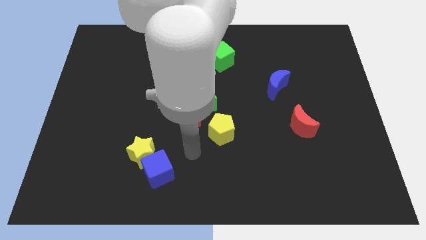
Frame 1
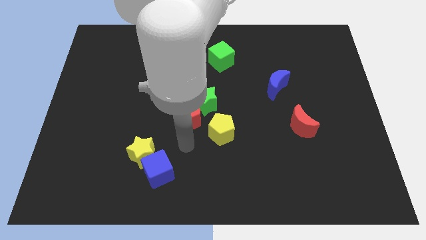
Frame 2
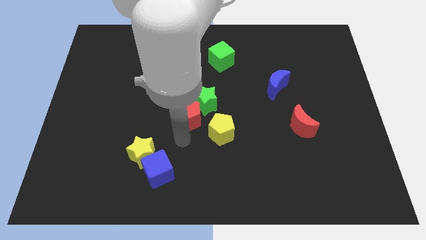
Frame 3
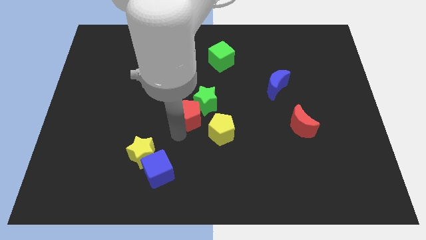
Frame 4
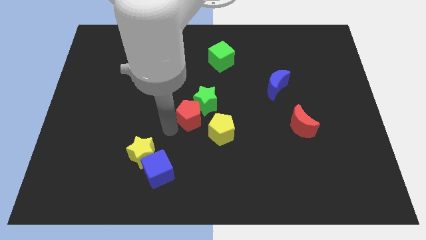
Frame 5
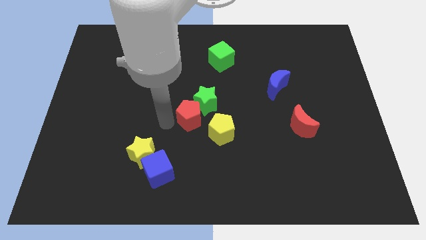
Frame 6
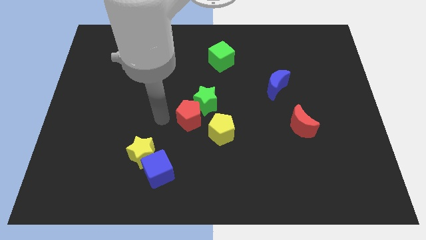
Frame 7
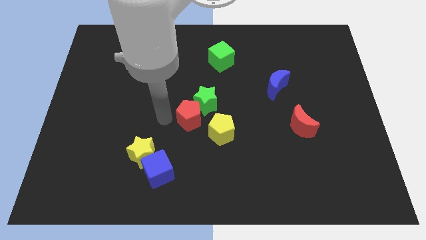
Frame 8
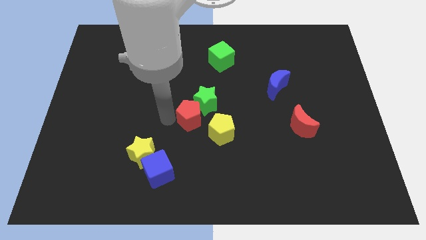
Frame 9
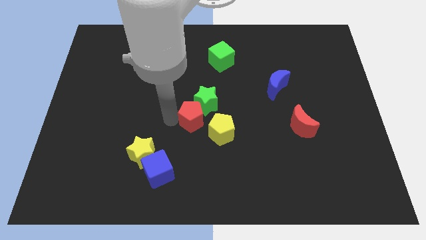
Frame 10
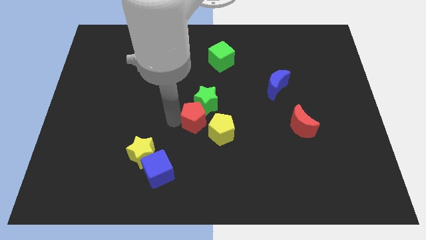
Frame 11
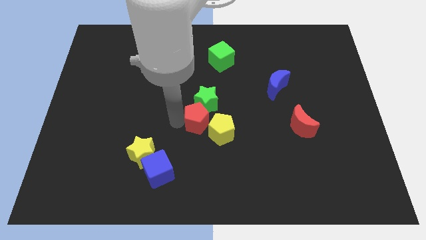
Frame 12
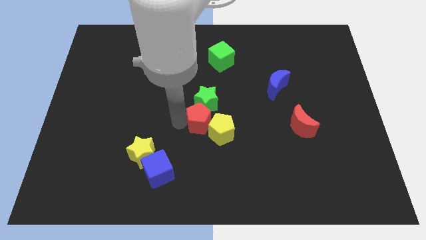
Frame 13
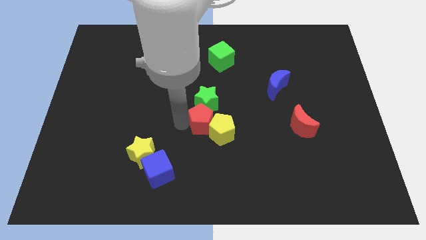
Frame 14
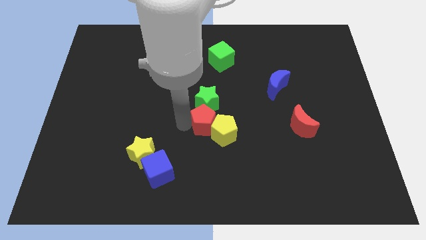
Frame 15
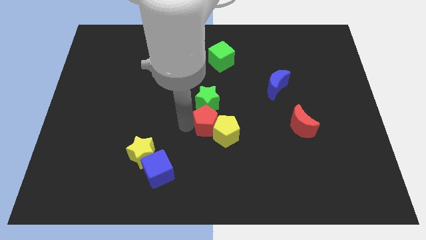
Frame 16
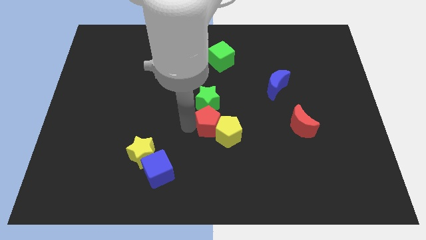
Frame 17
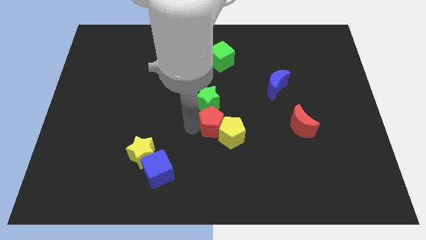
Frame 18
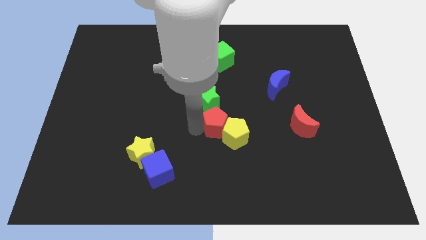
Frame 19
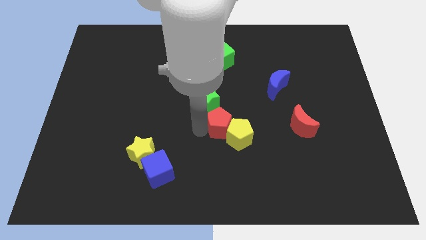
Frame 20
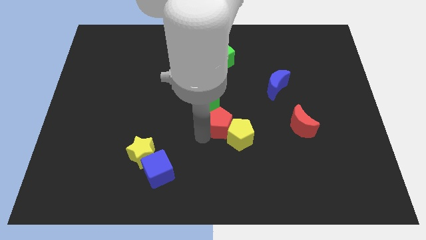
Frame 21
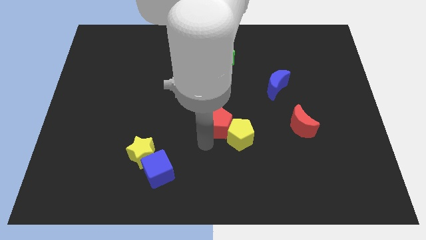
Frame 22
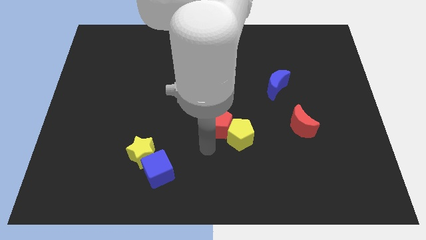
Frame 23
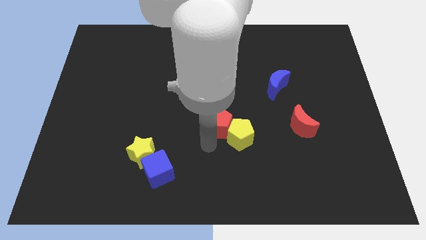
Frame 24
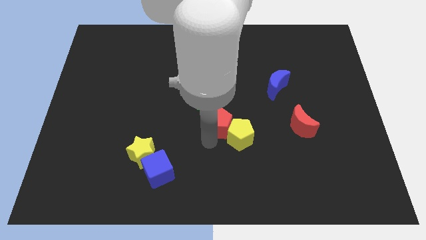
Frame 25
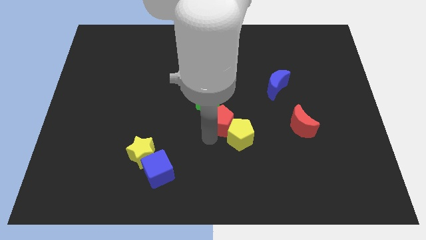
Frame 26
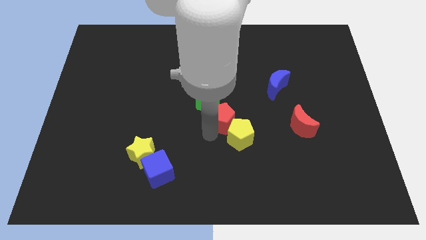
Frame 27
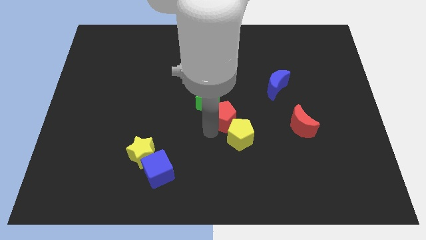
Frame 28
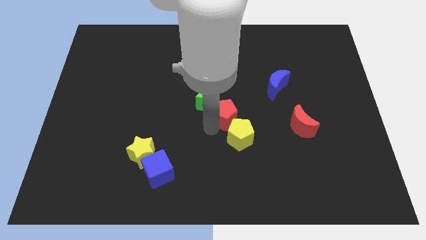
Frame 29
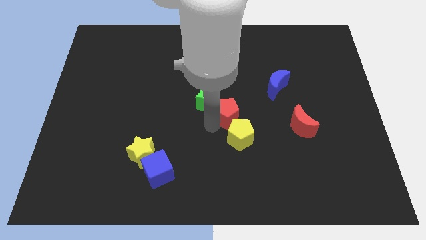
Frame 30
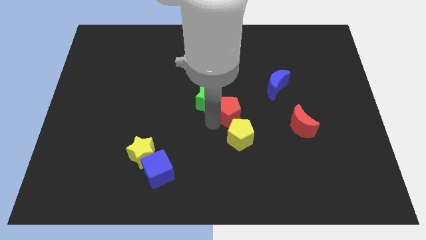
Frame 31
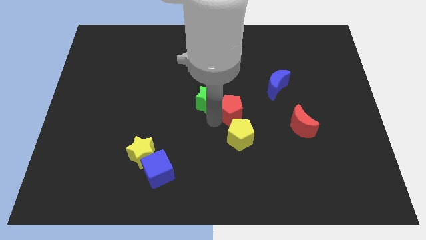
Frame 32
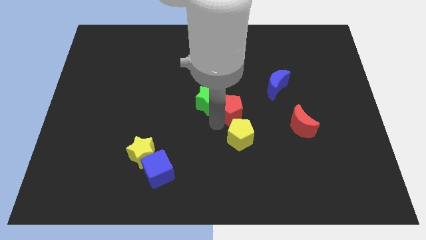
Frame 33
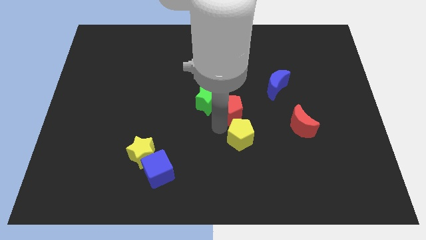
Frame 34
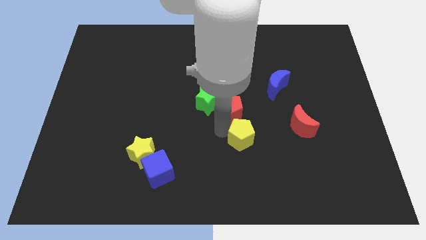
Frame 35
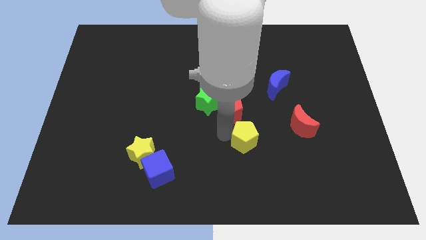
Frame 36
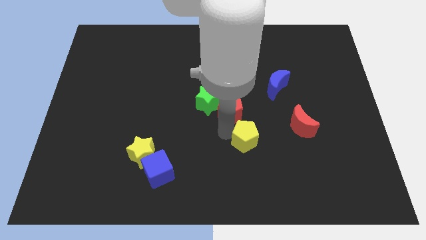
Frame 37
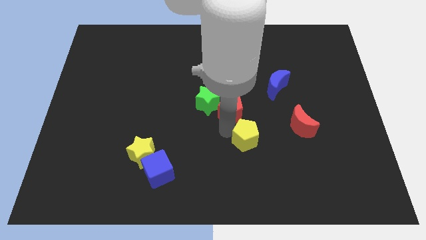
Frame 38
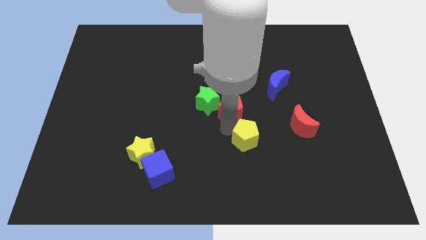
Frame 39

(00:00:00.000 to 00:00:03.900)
slightly push the red pentagon up and to the right diagonally

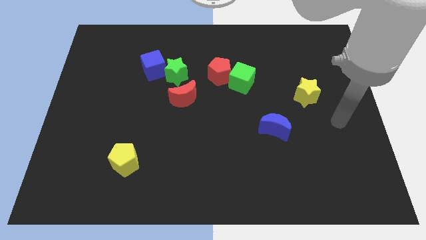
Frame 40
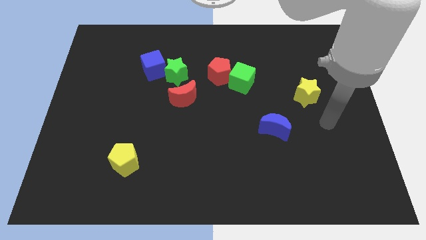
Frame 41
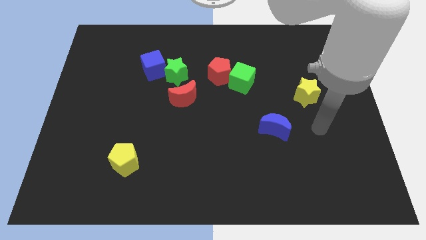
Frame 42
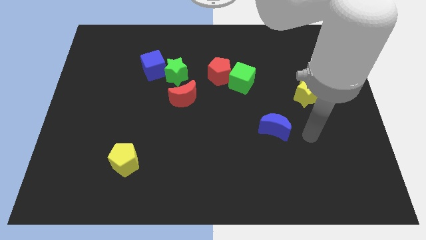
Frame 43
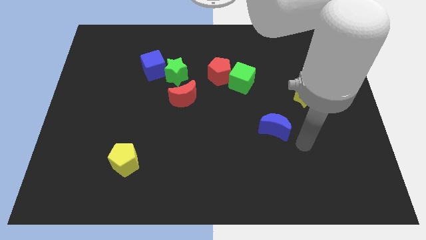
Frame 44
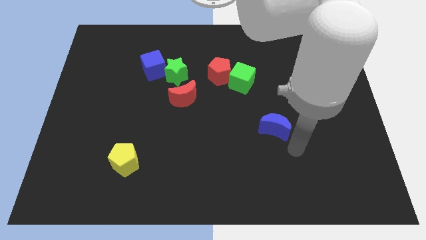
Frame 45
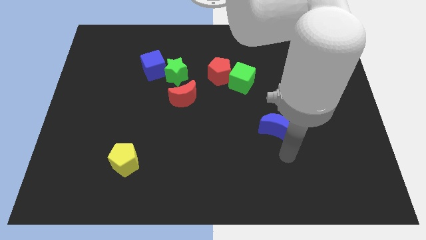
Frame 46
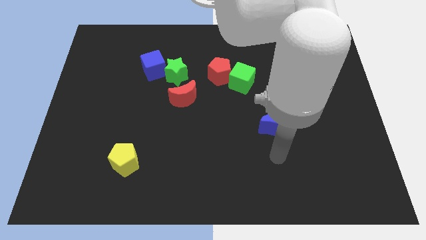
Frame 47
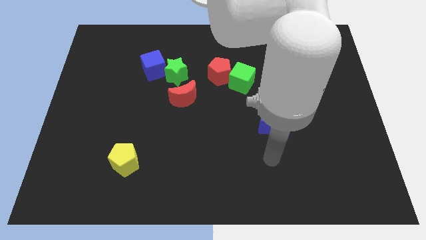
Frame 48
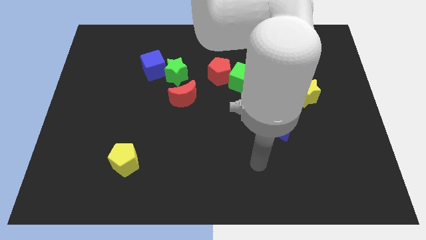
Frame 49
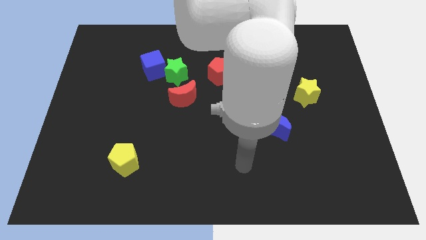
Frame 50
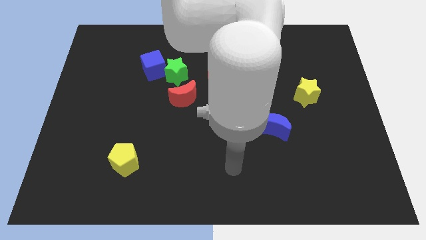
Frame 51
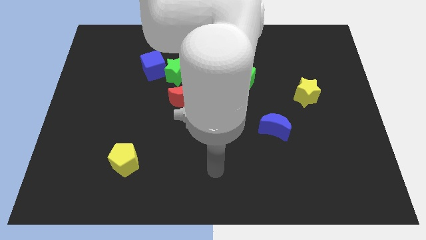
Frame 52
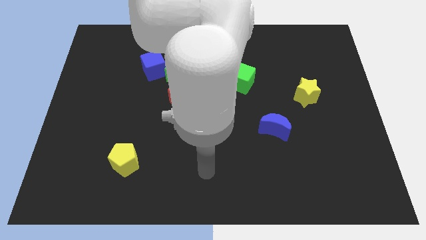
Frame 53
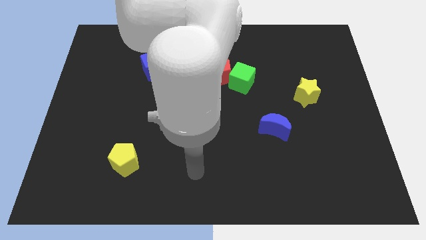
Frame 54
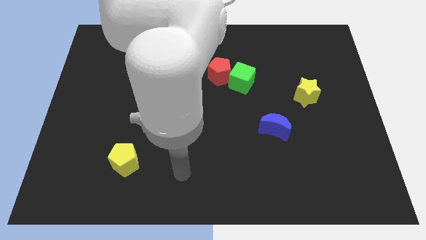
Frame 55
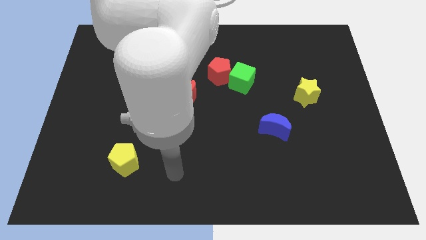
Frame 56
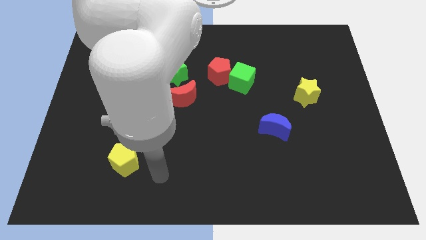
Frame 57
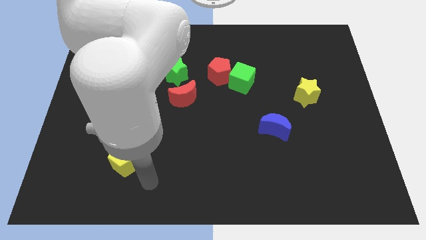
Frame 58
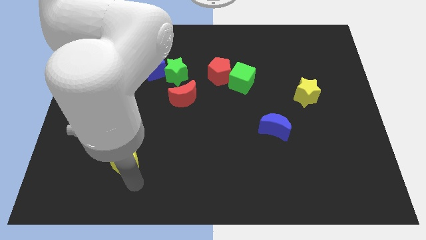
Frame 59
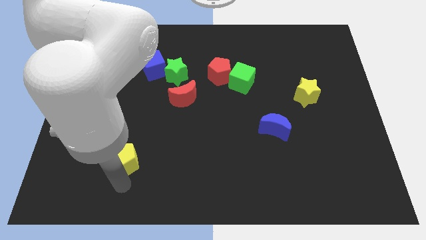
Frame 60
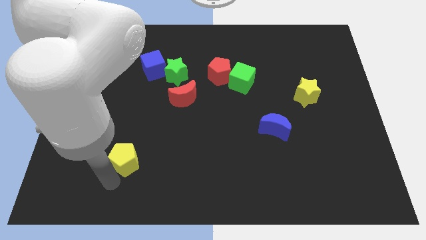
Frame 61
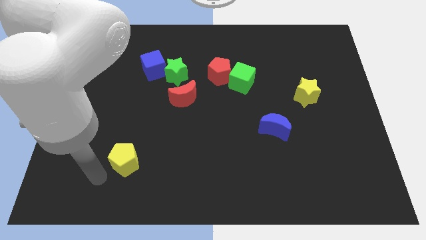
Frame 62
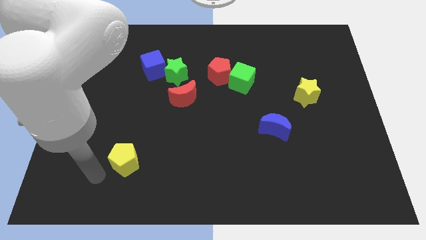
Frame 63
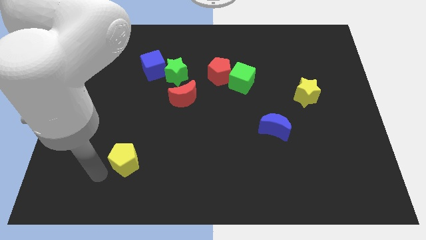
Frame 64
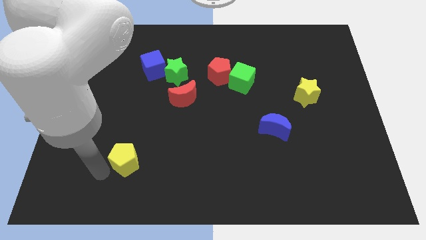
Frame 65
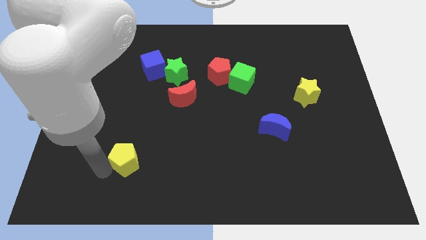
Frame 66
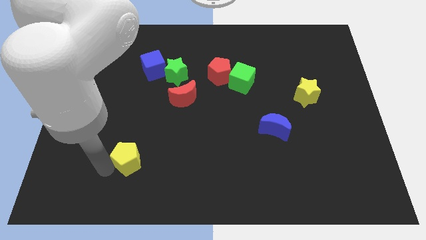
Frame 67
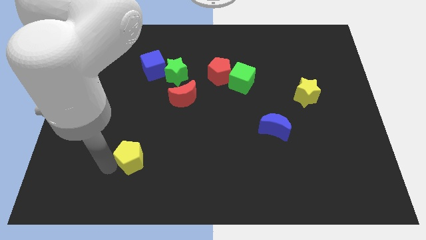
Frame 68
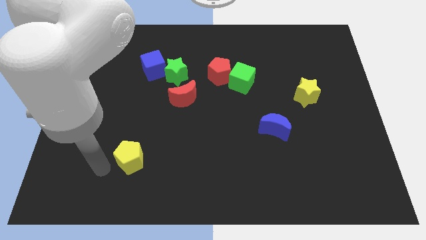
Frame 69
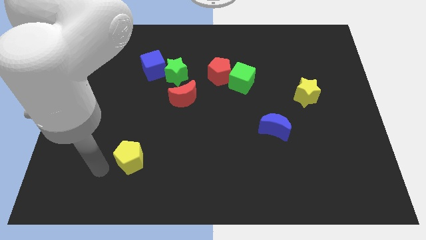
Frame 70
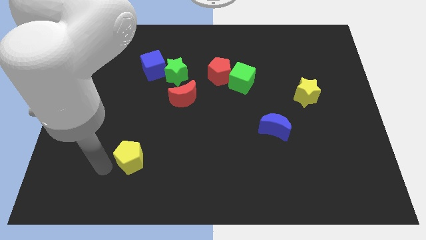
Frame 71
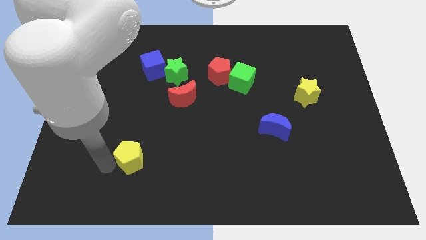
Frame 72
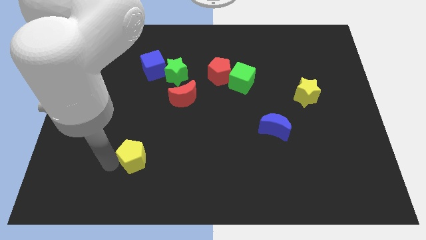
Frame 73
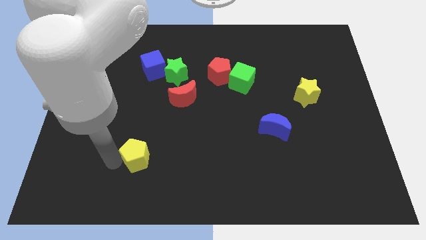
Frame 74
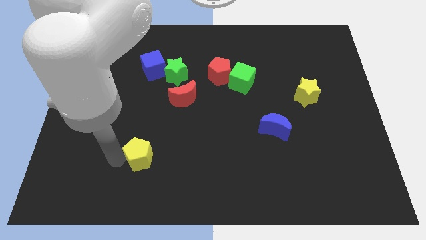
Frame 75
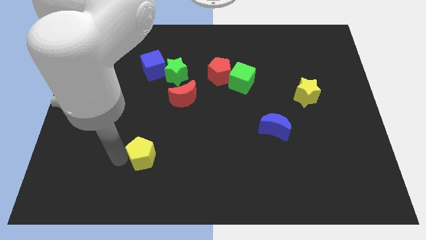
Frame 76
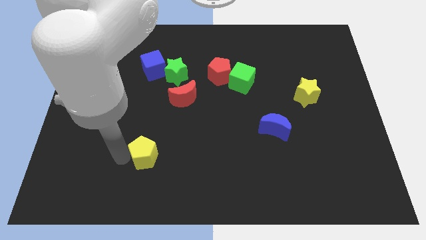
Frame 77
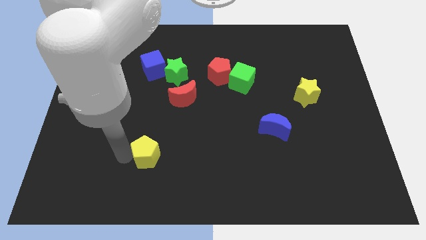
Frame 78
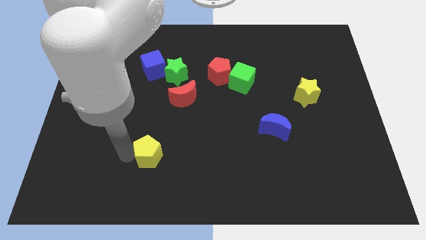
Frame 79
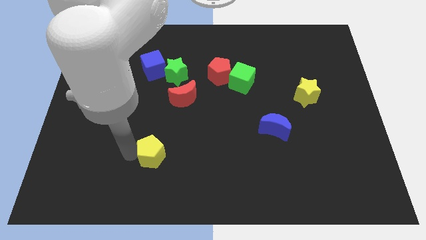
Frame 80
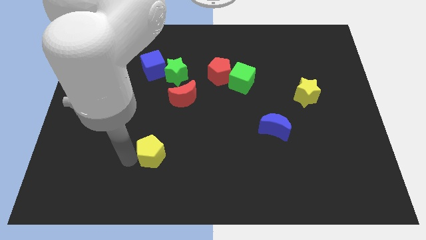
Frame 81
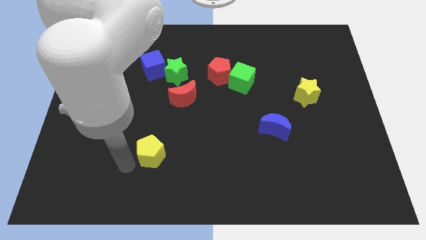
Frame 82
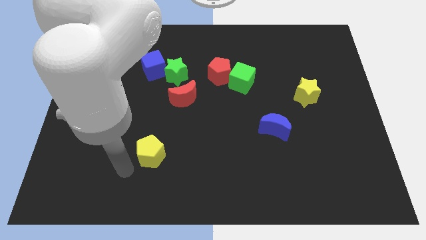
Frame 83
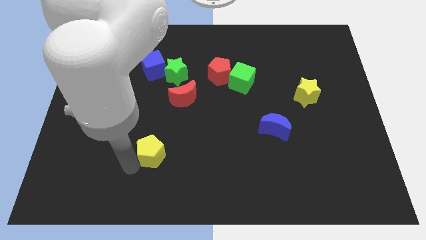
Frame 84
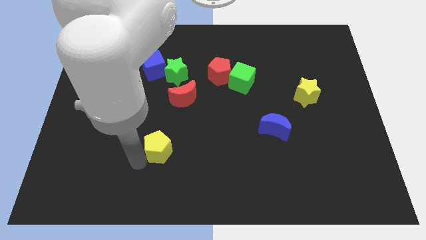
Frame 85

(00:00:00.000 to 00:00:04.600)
push the yellow pentagon up and right slightly
